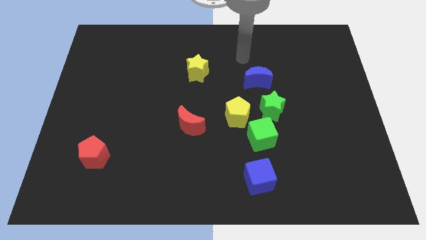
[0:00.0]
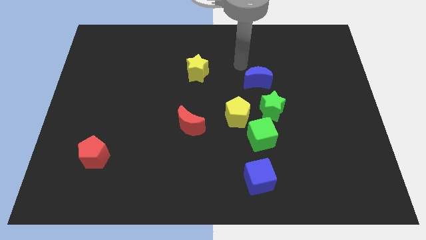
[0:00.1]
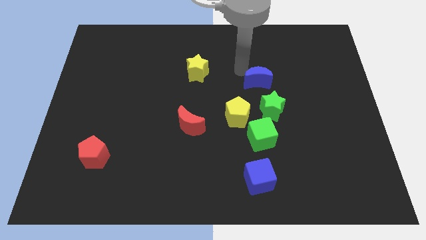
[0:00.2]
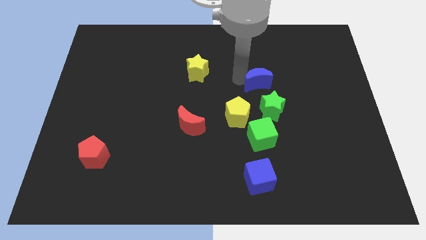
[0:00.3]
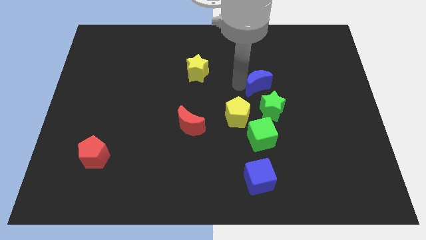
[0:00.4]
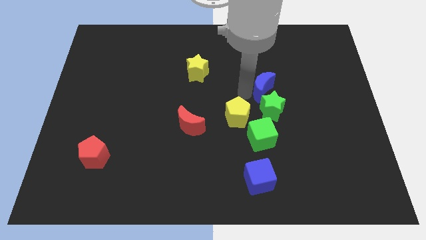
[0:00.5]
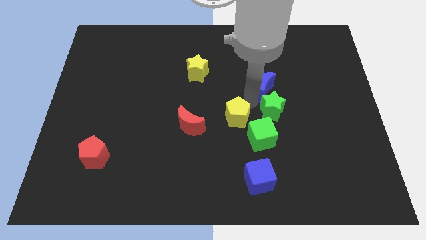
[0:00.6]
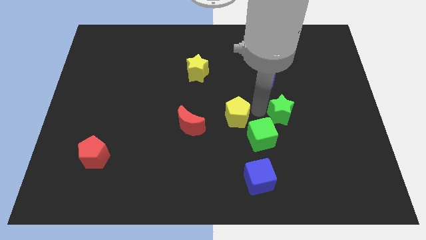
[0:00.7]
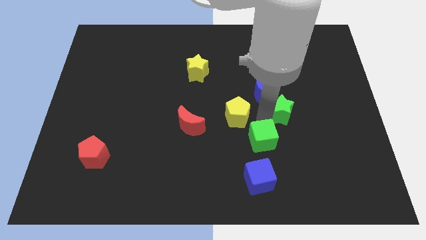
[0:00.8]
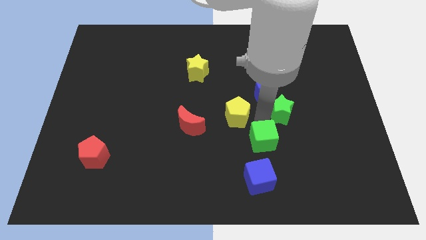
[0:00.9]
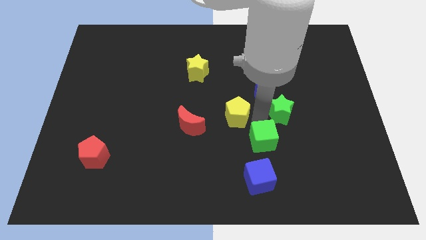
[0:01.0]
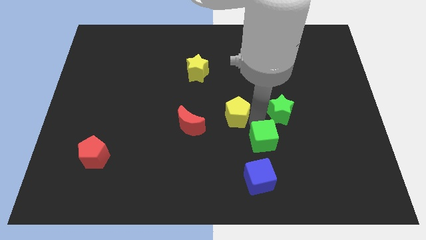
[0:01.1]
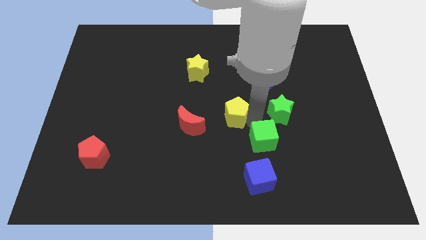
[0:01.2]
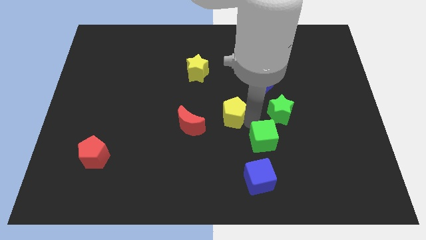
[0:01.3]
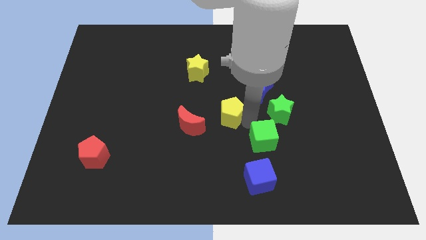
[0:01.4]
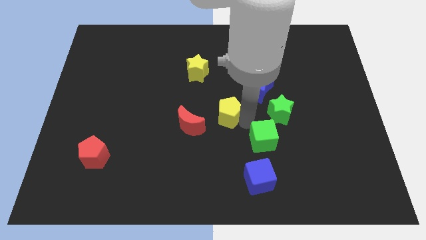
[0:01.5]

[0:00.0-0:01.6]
move the yellow pentagon away from the green cube and green star

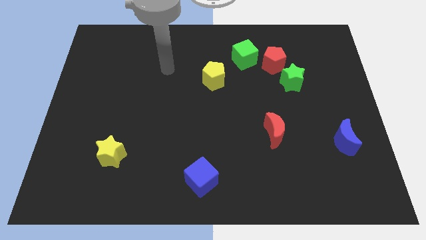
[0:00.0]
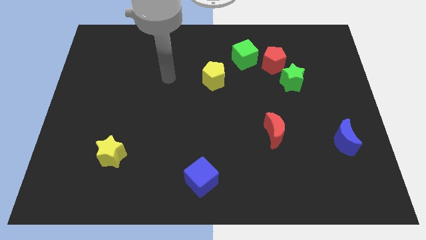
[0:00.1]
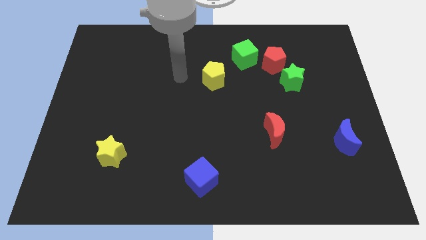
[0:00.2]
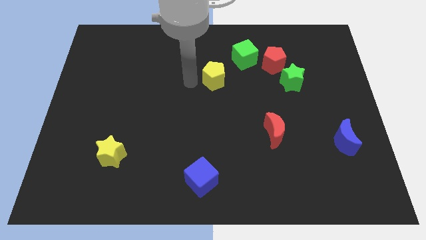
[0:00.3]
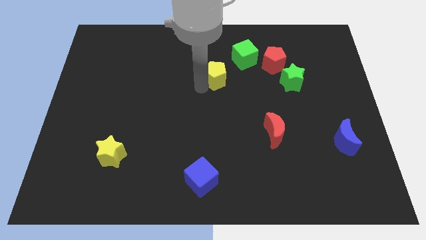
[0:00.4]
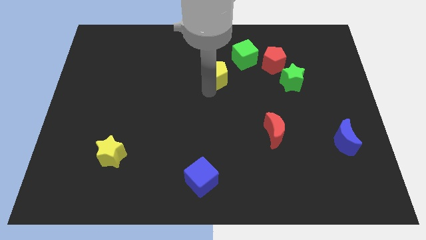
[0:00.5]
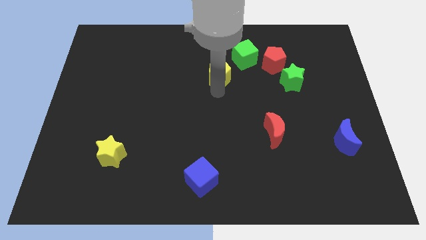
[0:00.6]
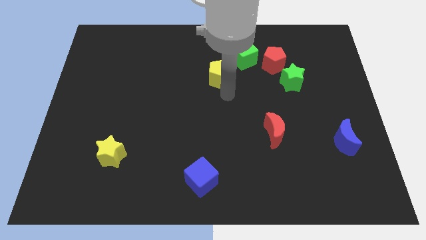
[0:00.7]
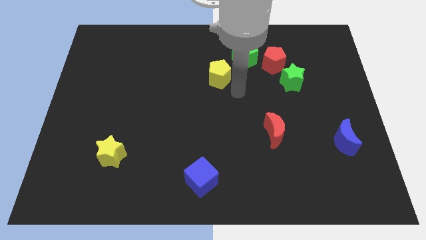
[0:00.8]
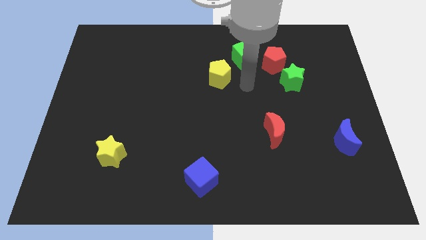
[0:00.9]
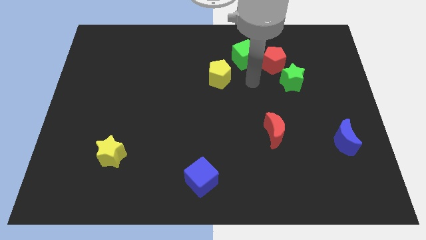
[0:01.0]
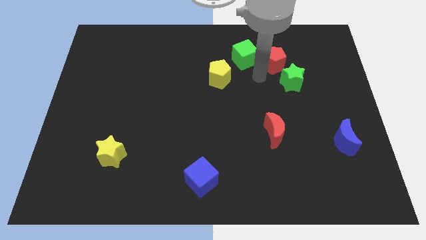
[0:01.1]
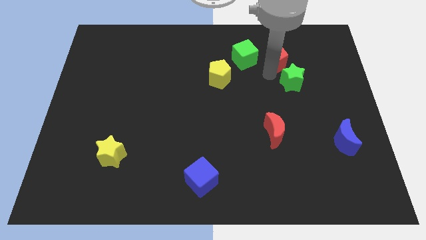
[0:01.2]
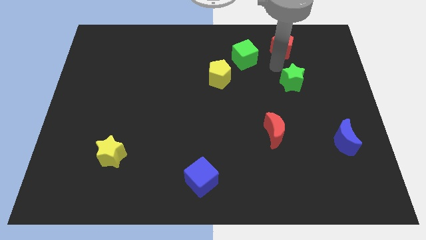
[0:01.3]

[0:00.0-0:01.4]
pull the green star apart from the red pentagon

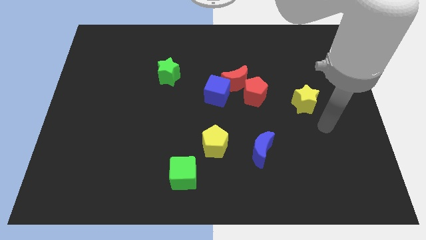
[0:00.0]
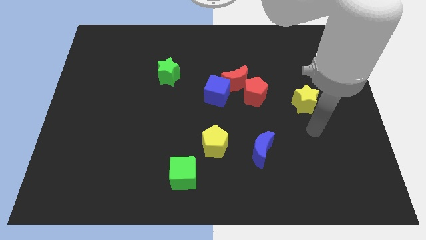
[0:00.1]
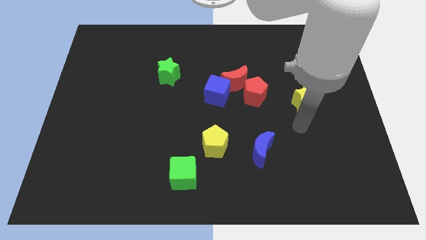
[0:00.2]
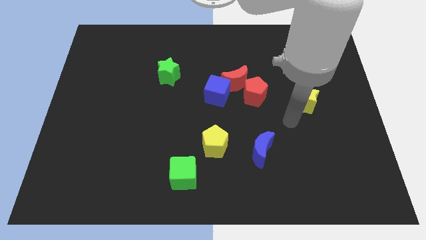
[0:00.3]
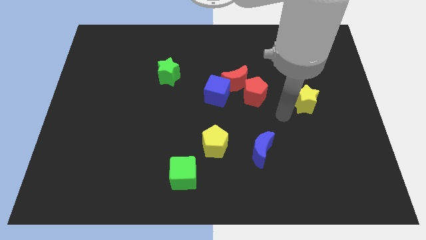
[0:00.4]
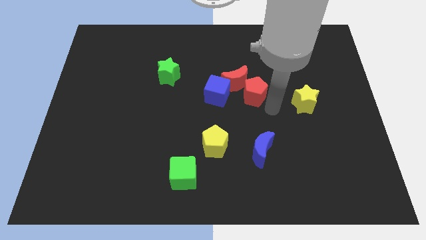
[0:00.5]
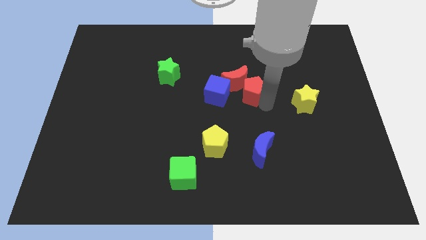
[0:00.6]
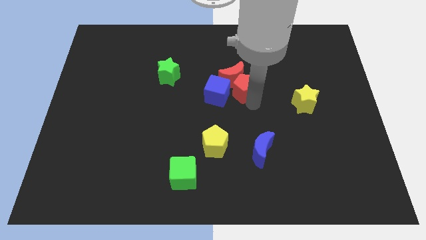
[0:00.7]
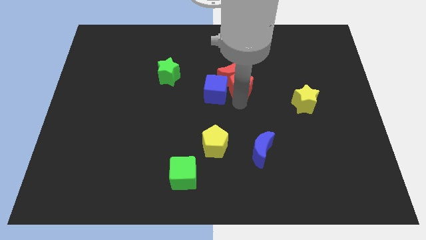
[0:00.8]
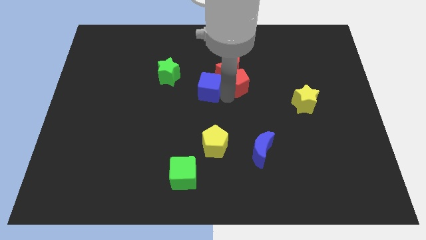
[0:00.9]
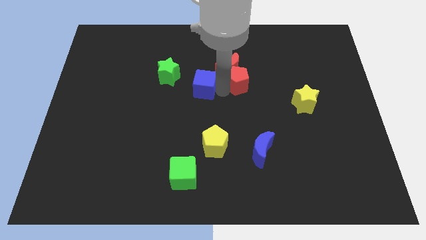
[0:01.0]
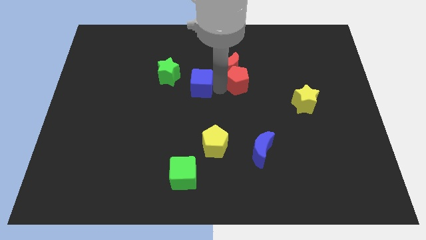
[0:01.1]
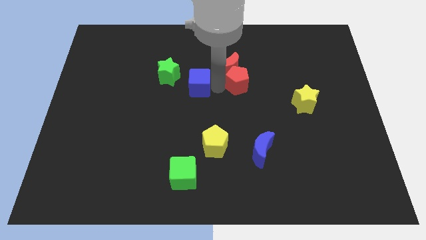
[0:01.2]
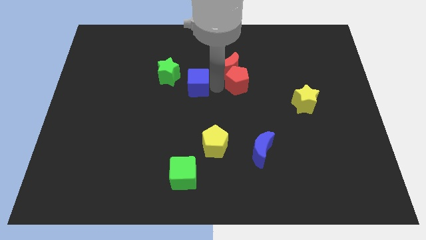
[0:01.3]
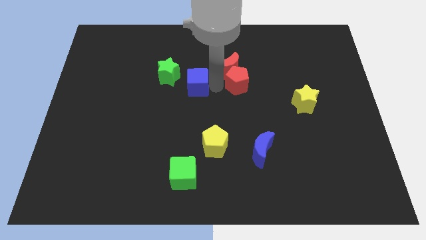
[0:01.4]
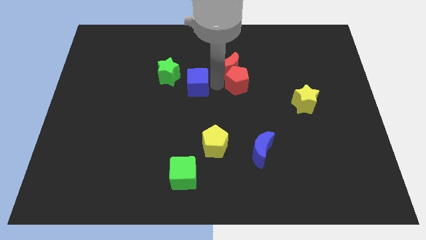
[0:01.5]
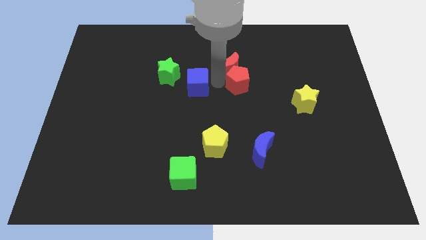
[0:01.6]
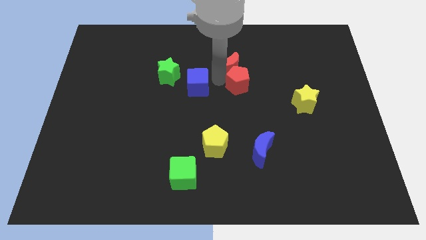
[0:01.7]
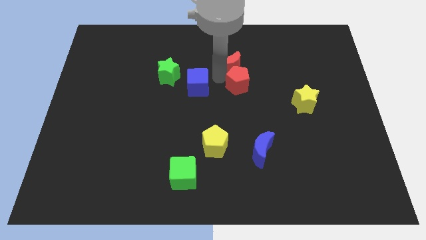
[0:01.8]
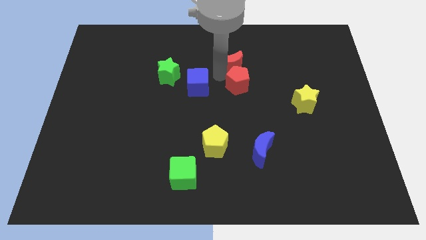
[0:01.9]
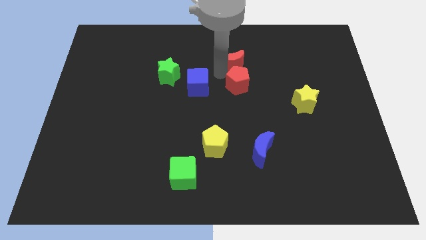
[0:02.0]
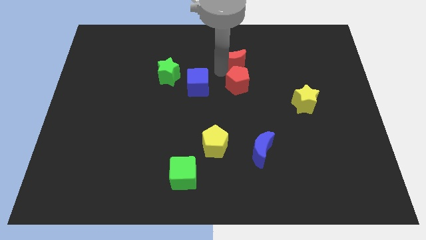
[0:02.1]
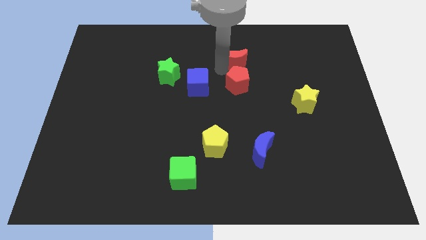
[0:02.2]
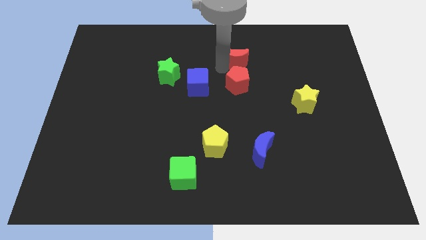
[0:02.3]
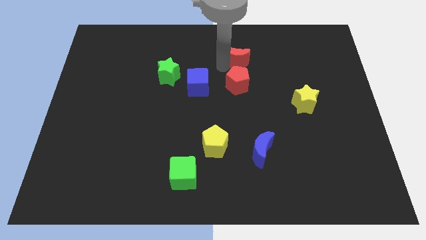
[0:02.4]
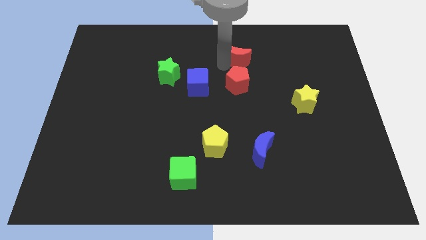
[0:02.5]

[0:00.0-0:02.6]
separate the red moon from the red pentagon and blue cube

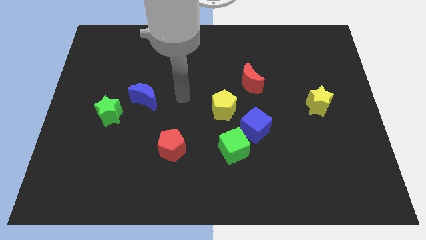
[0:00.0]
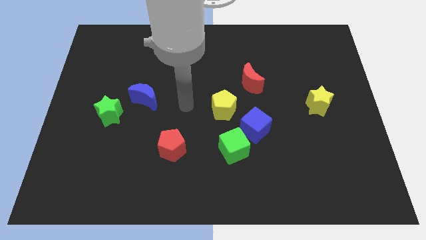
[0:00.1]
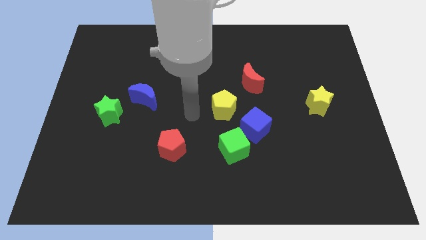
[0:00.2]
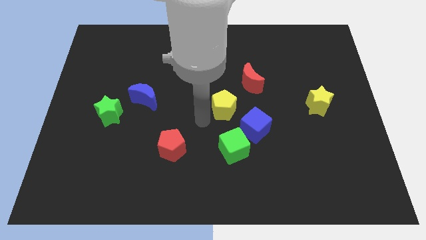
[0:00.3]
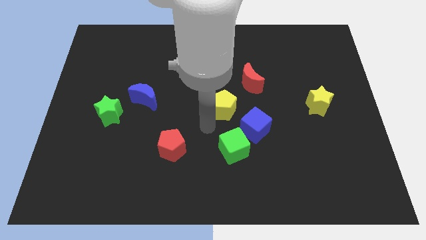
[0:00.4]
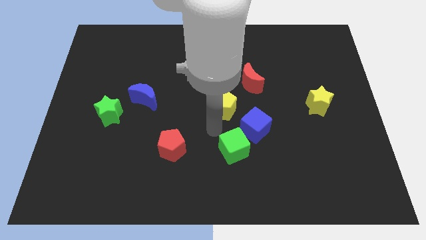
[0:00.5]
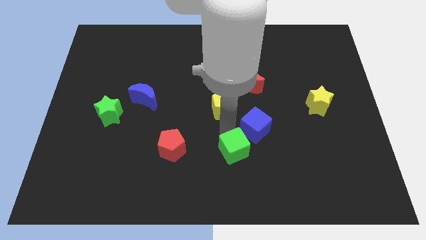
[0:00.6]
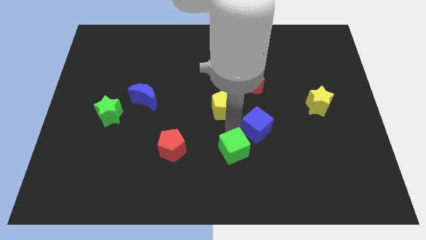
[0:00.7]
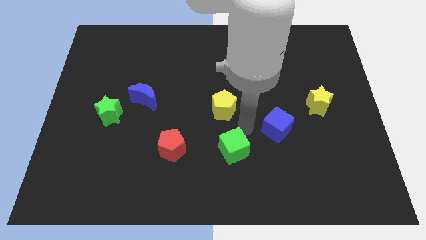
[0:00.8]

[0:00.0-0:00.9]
pull the green cube apart from the blue cube

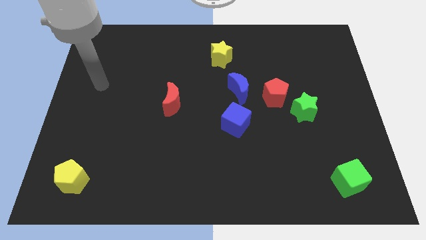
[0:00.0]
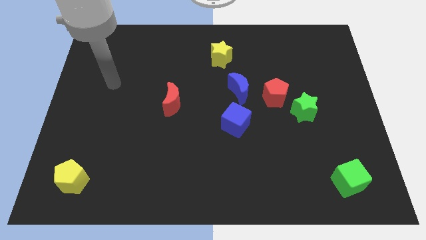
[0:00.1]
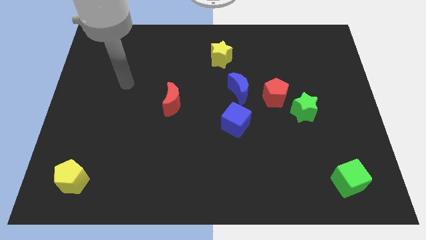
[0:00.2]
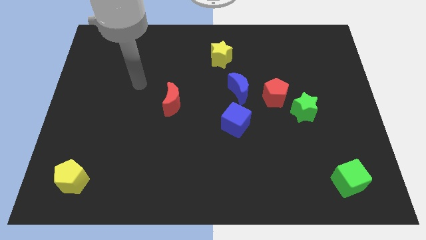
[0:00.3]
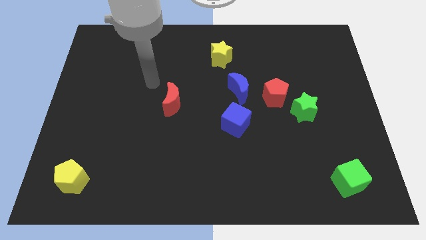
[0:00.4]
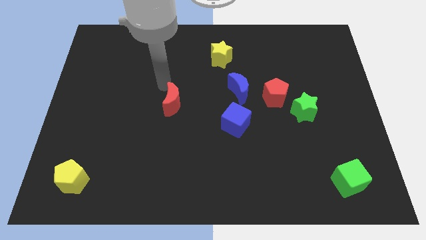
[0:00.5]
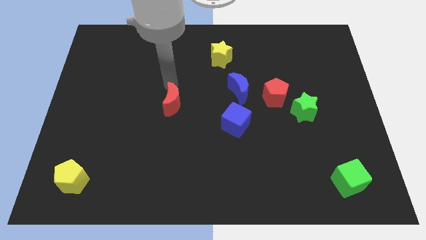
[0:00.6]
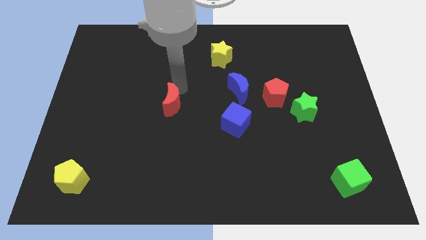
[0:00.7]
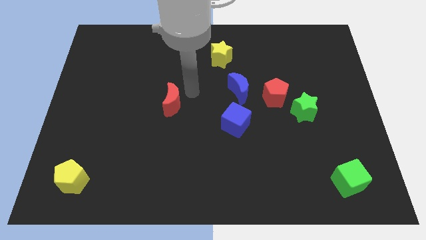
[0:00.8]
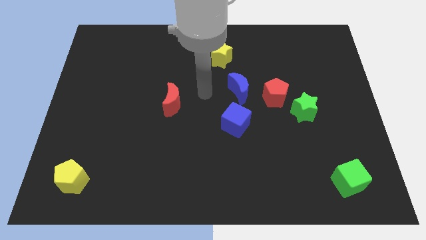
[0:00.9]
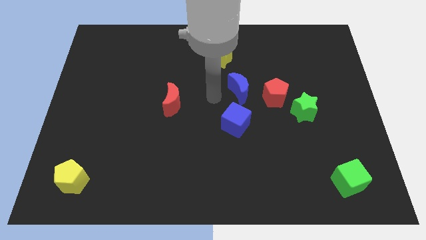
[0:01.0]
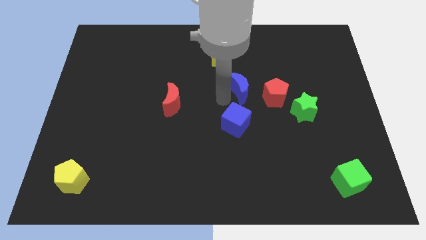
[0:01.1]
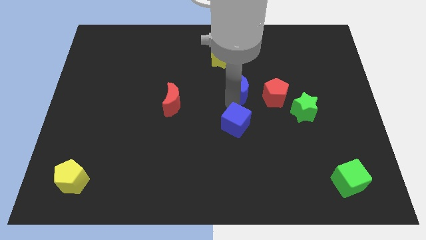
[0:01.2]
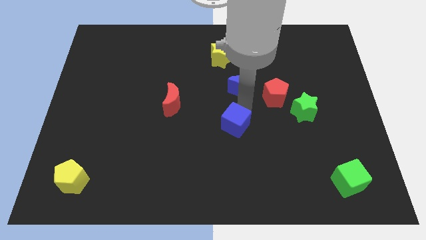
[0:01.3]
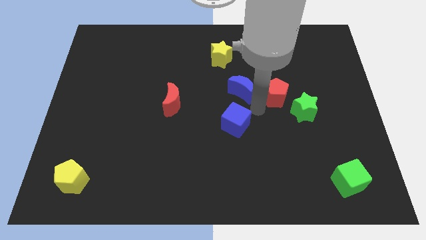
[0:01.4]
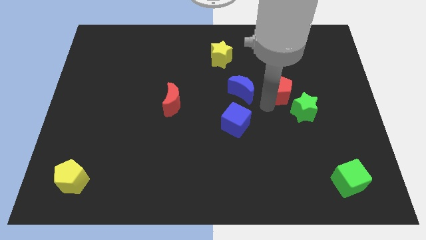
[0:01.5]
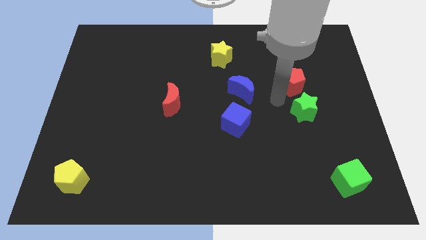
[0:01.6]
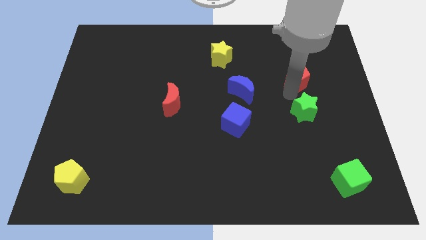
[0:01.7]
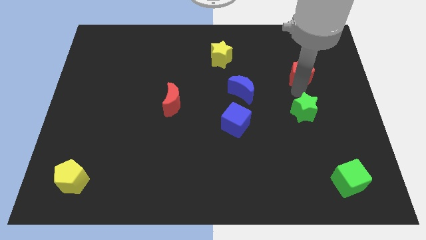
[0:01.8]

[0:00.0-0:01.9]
move the green star away from the red pentagon

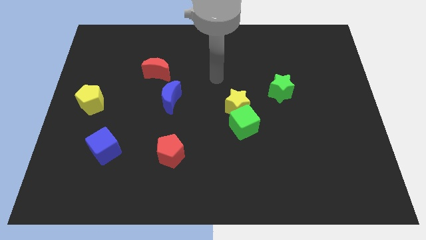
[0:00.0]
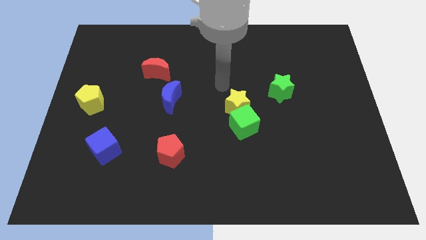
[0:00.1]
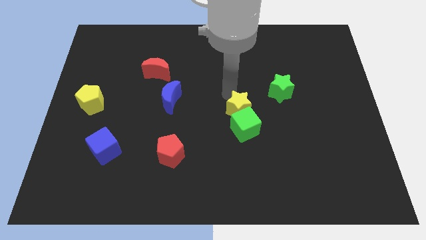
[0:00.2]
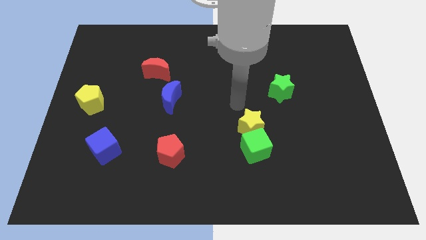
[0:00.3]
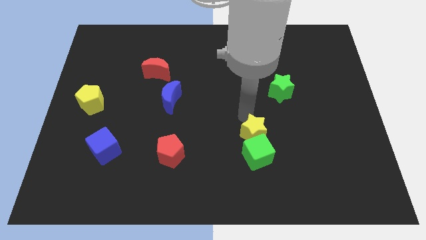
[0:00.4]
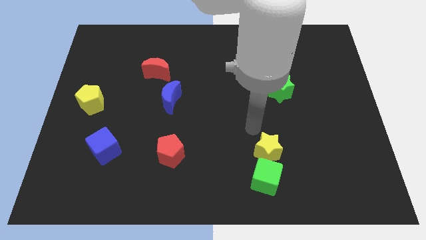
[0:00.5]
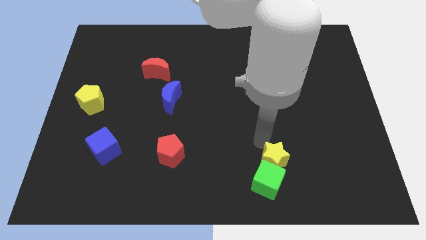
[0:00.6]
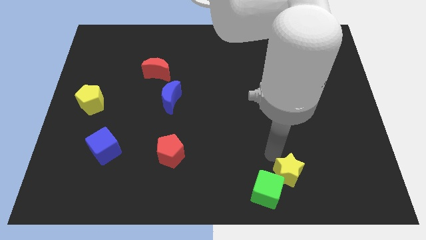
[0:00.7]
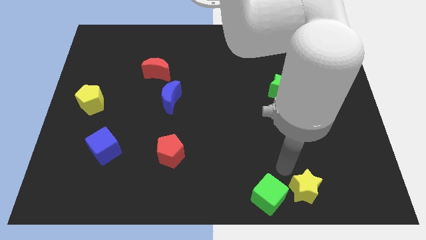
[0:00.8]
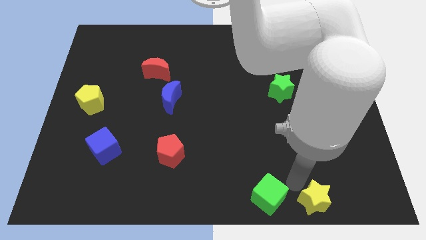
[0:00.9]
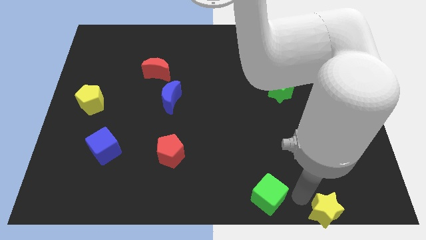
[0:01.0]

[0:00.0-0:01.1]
move the green cube away from the yellow star
